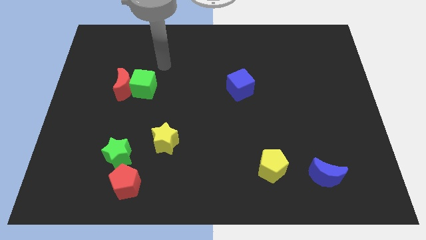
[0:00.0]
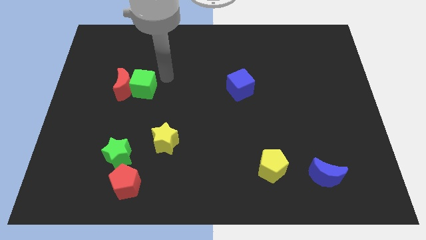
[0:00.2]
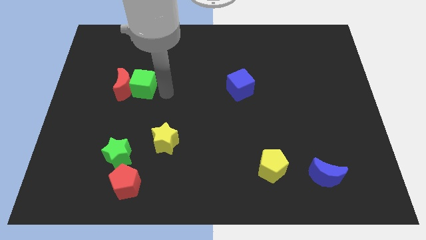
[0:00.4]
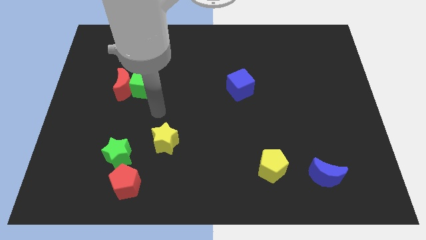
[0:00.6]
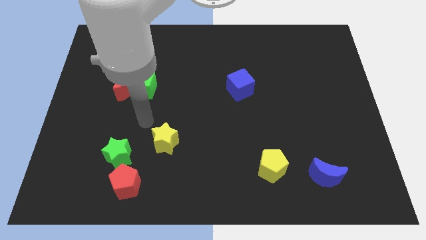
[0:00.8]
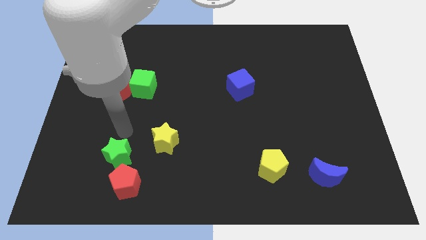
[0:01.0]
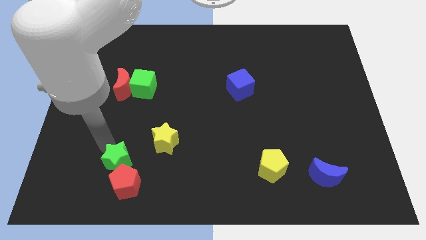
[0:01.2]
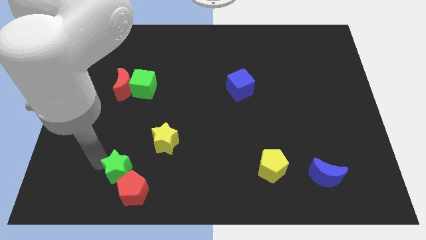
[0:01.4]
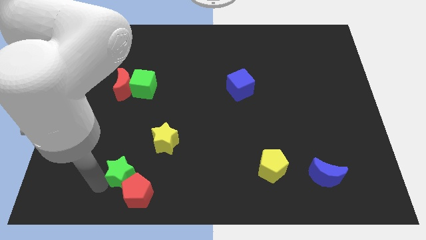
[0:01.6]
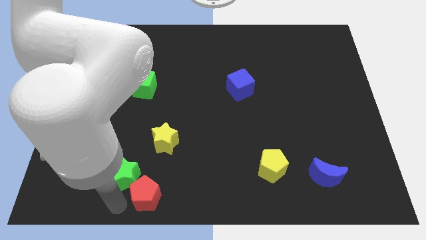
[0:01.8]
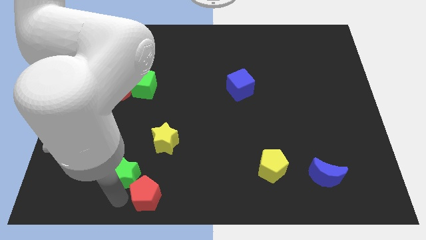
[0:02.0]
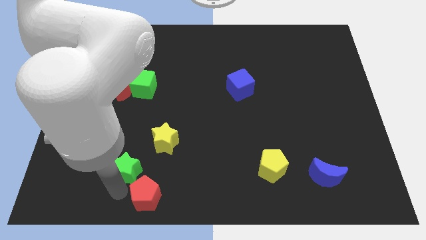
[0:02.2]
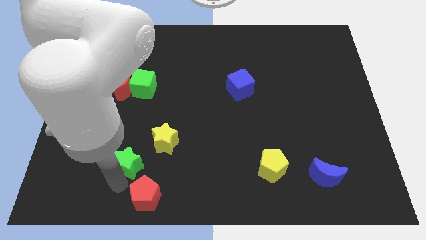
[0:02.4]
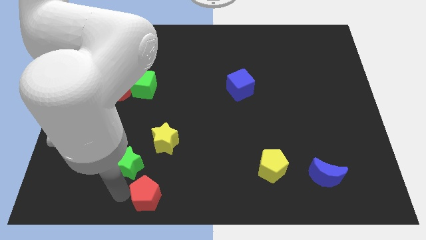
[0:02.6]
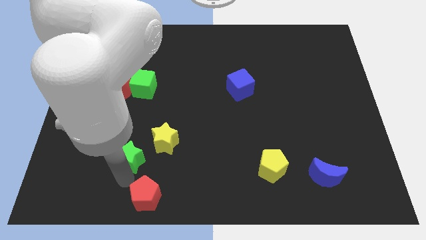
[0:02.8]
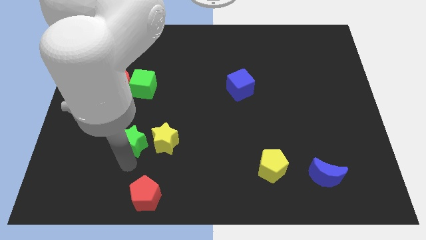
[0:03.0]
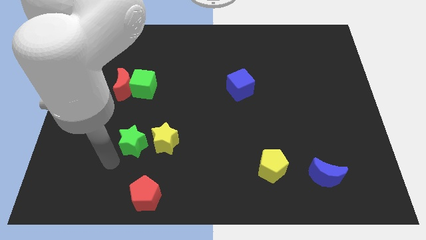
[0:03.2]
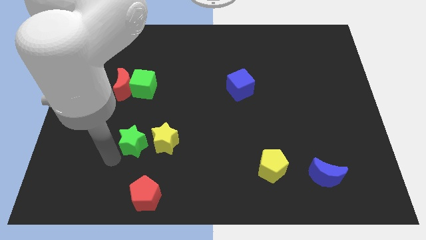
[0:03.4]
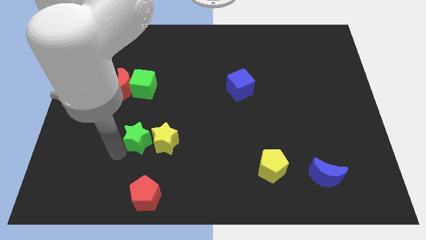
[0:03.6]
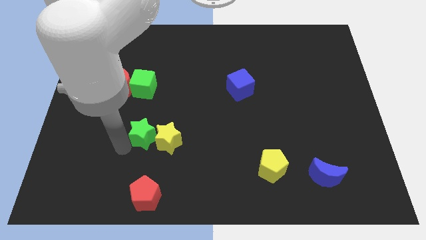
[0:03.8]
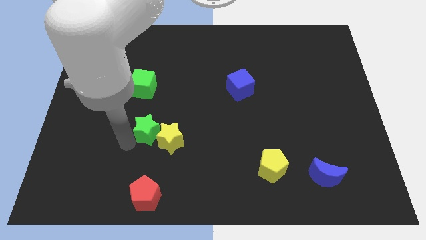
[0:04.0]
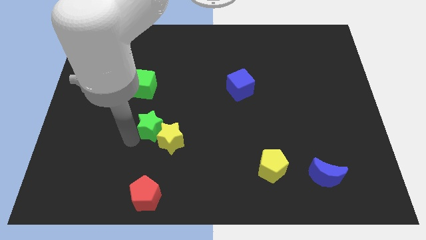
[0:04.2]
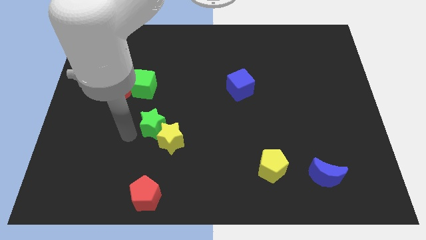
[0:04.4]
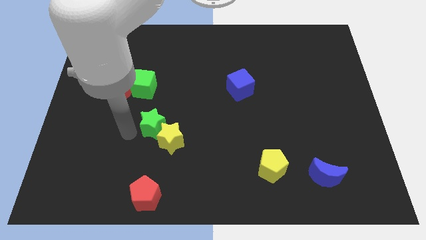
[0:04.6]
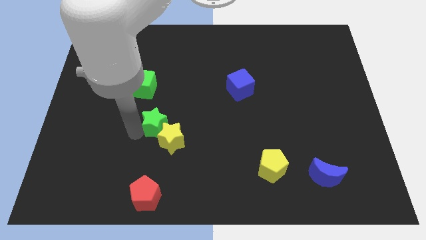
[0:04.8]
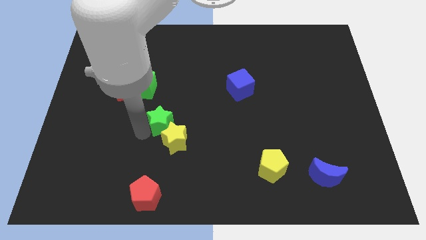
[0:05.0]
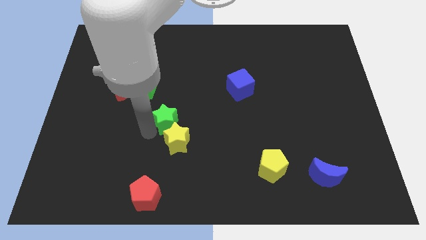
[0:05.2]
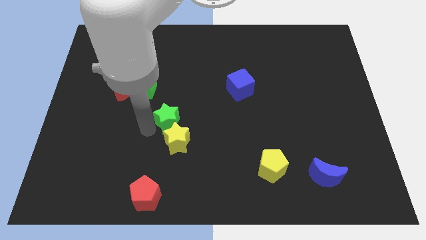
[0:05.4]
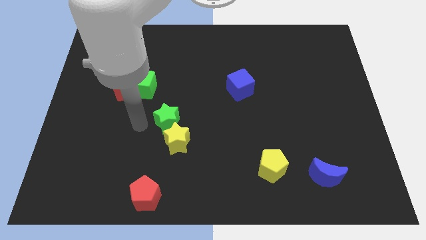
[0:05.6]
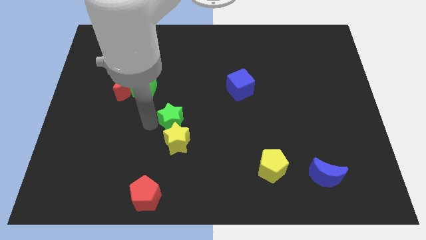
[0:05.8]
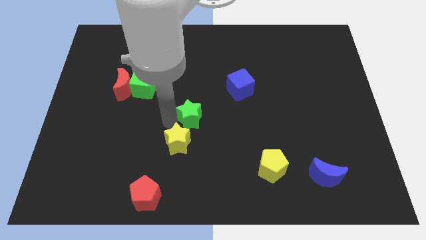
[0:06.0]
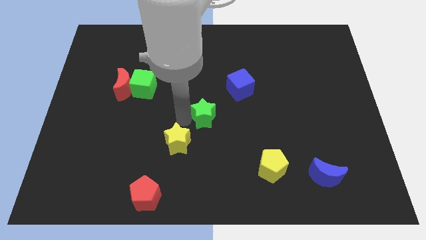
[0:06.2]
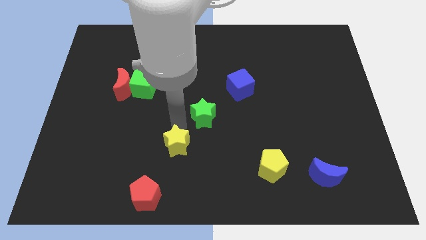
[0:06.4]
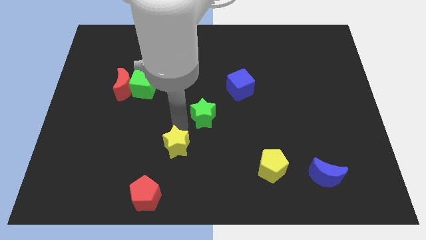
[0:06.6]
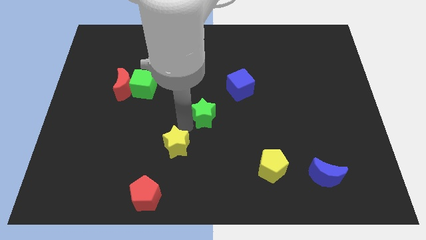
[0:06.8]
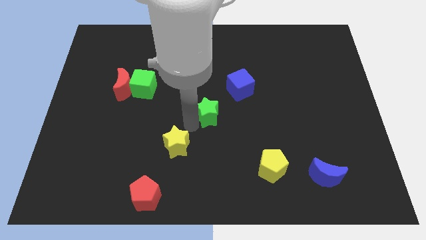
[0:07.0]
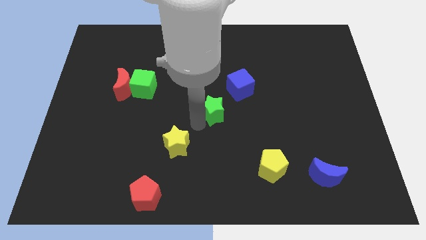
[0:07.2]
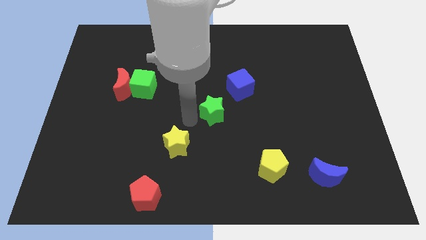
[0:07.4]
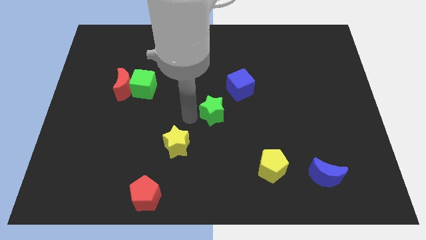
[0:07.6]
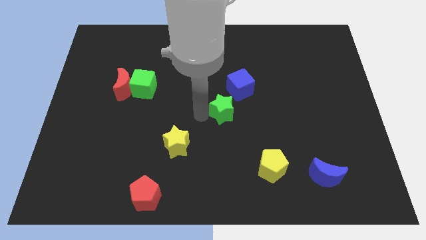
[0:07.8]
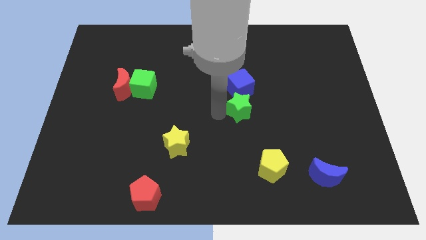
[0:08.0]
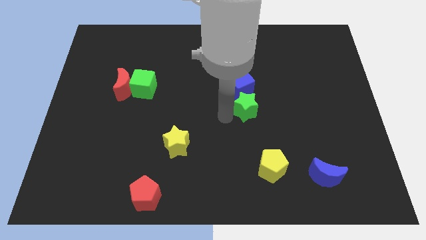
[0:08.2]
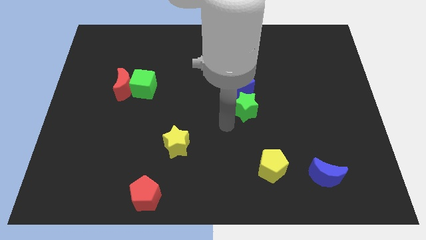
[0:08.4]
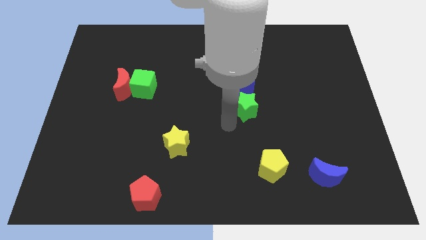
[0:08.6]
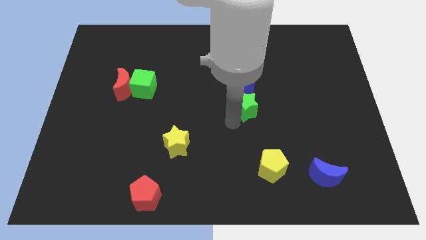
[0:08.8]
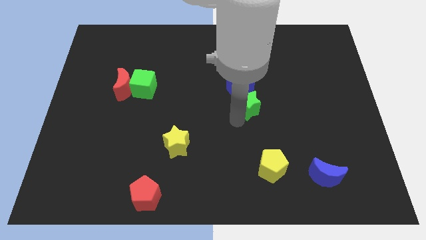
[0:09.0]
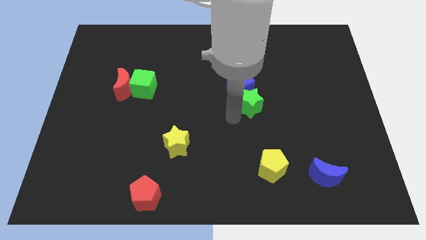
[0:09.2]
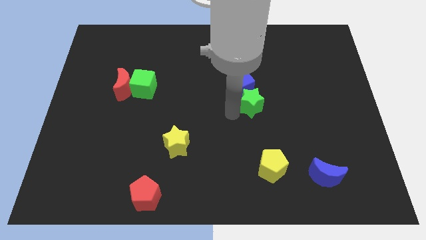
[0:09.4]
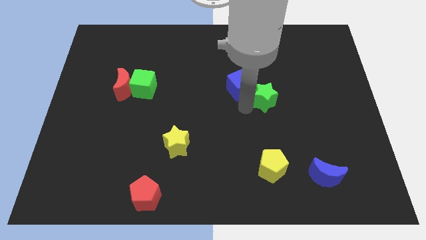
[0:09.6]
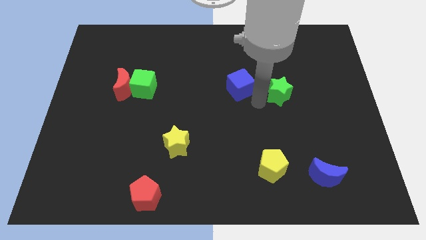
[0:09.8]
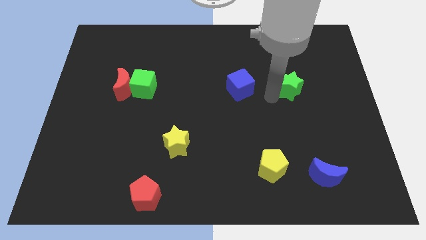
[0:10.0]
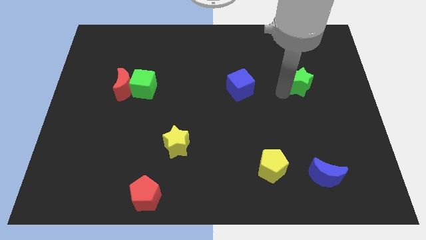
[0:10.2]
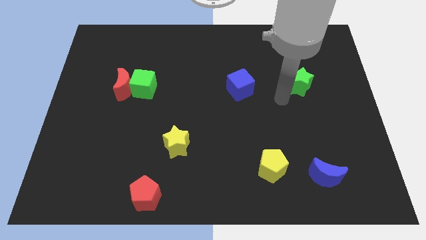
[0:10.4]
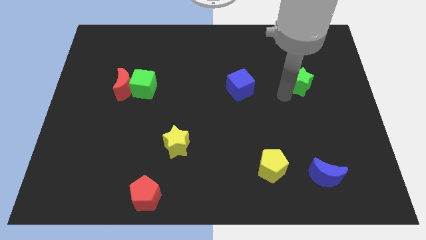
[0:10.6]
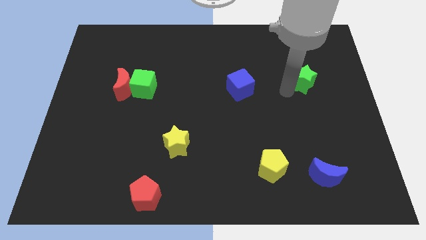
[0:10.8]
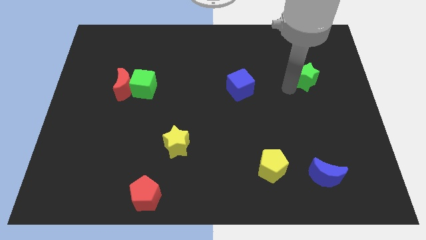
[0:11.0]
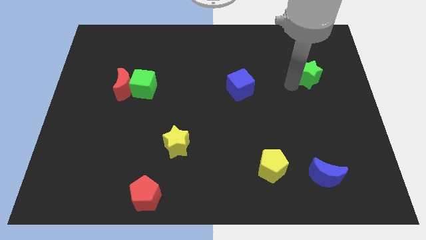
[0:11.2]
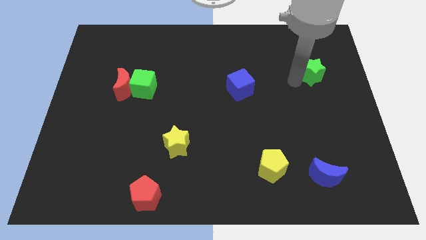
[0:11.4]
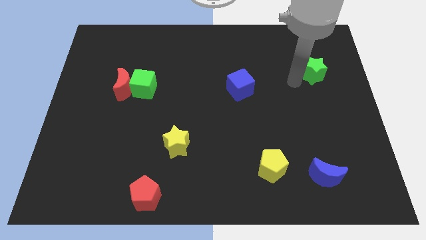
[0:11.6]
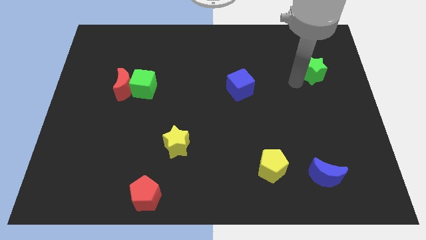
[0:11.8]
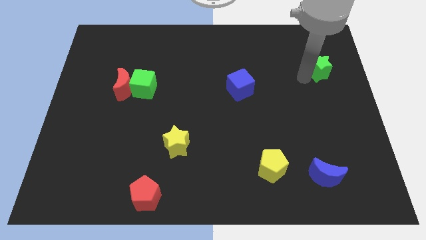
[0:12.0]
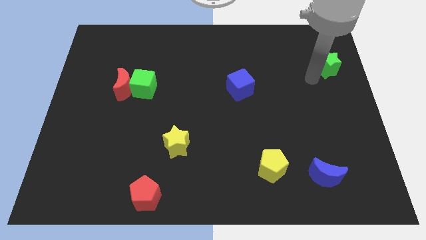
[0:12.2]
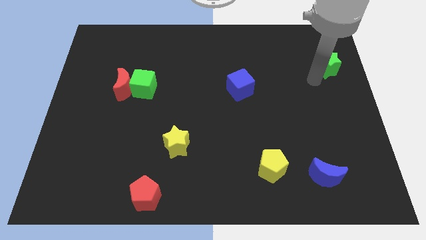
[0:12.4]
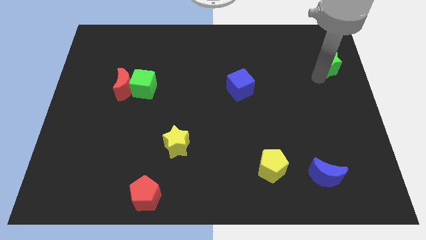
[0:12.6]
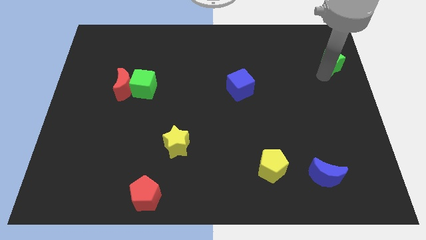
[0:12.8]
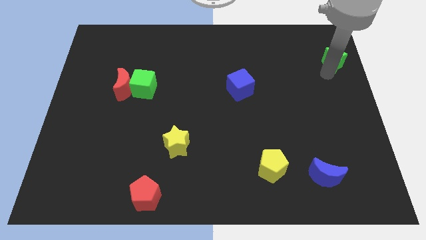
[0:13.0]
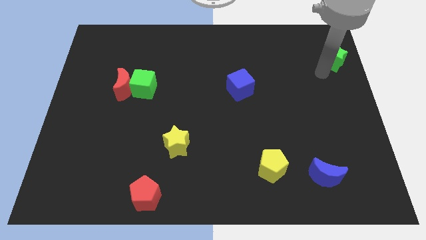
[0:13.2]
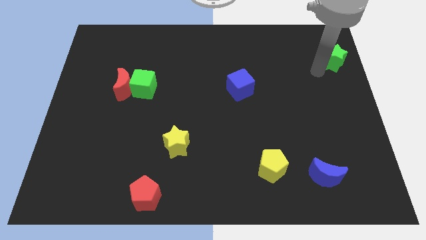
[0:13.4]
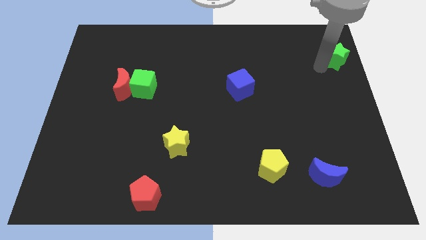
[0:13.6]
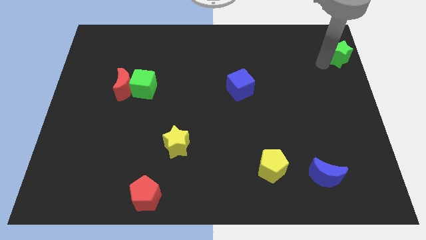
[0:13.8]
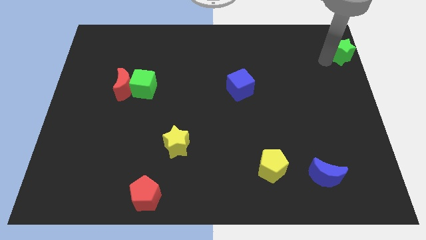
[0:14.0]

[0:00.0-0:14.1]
push the green star to the top right
